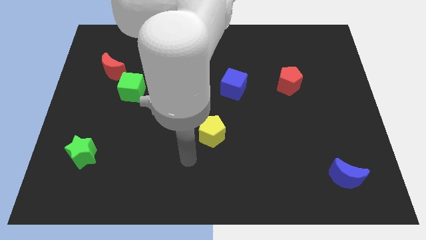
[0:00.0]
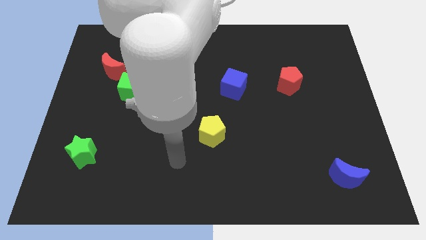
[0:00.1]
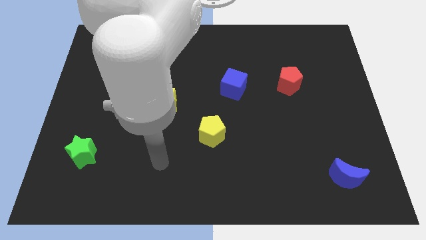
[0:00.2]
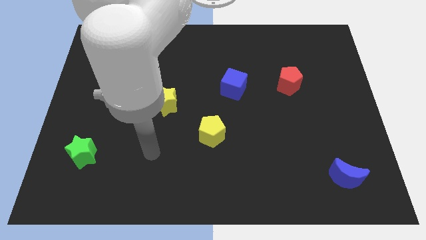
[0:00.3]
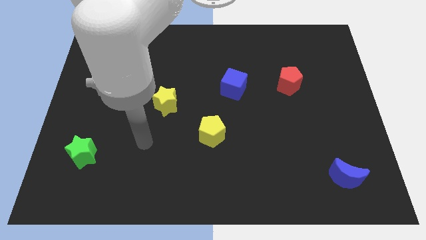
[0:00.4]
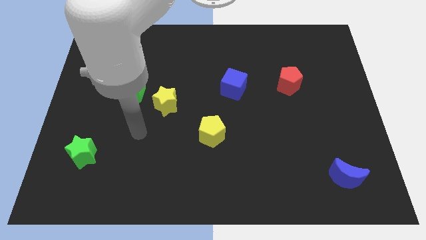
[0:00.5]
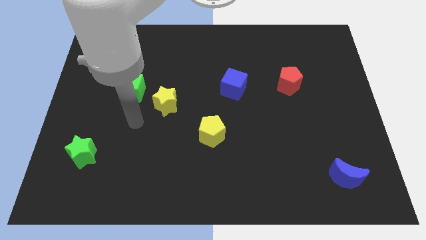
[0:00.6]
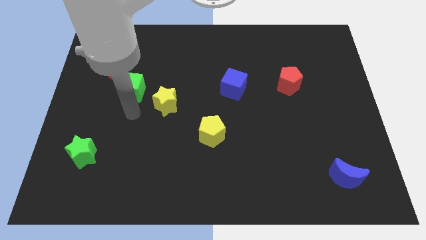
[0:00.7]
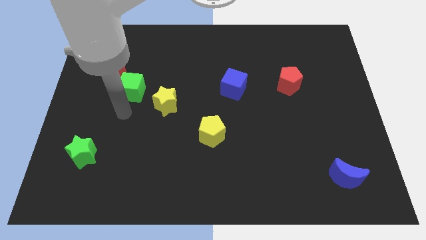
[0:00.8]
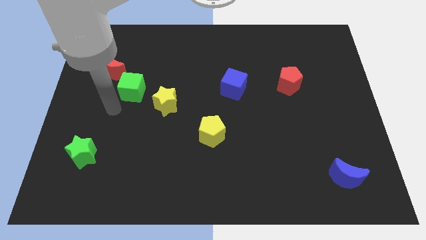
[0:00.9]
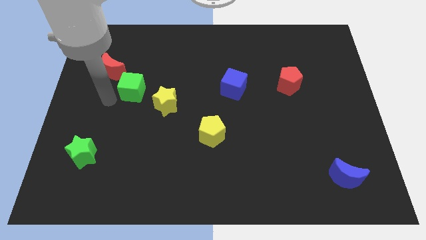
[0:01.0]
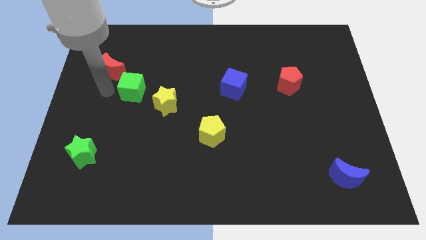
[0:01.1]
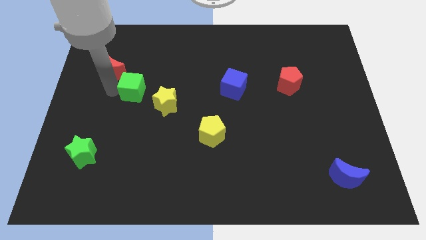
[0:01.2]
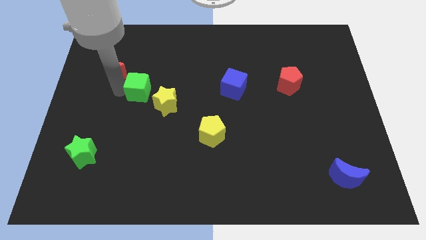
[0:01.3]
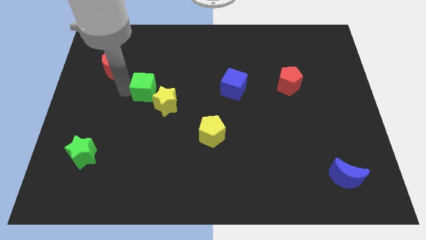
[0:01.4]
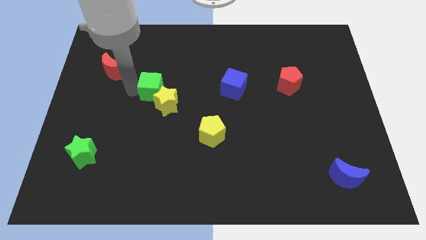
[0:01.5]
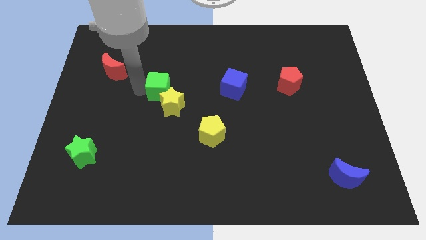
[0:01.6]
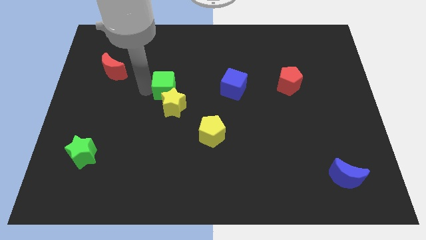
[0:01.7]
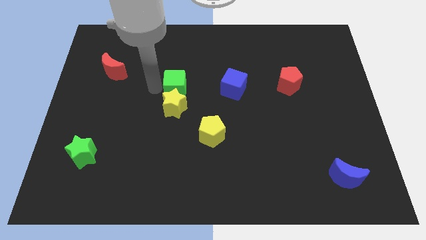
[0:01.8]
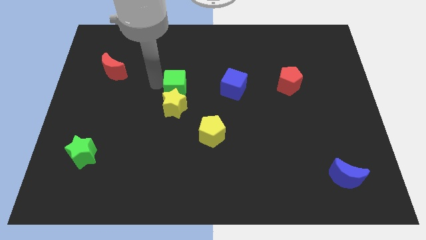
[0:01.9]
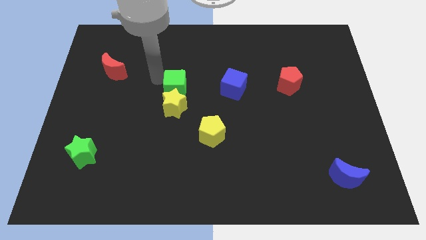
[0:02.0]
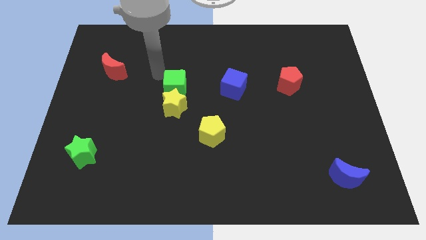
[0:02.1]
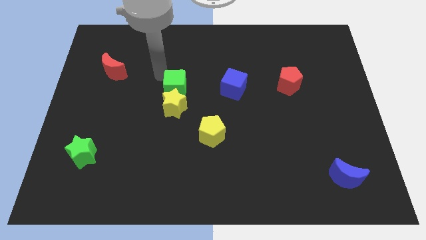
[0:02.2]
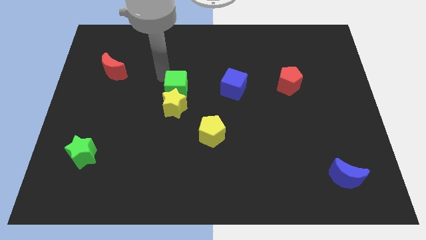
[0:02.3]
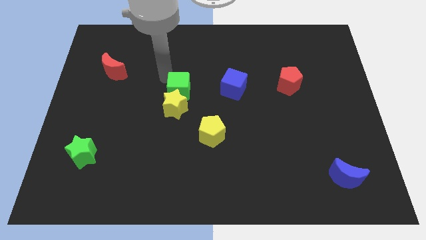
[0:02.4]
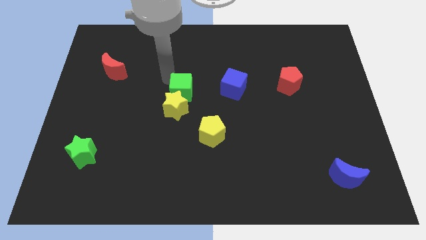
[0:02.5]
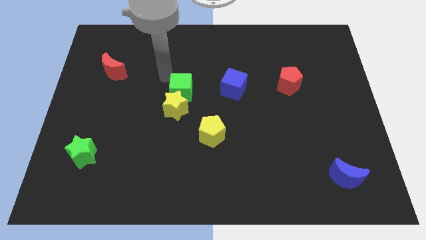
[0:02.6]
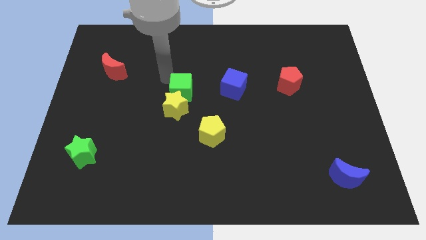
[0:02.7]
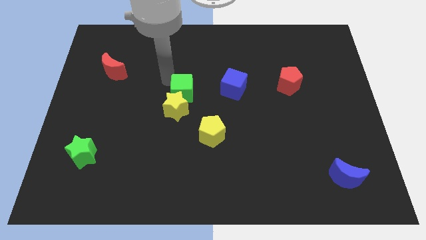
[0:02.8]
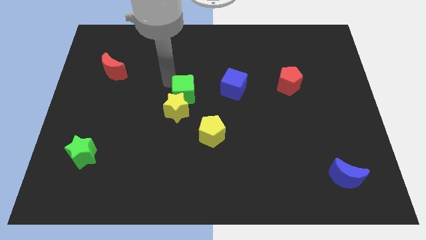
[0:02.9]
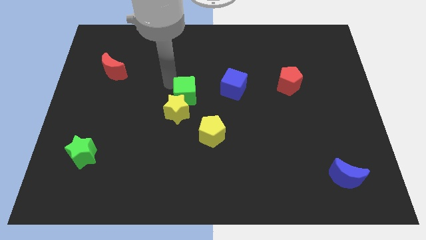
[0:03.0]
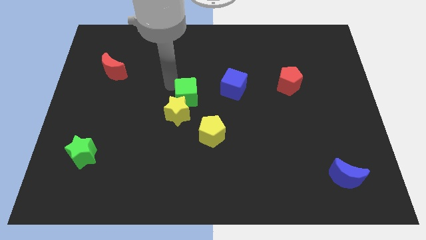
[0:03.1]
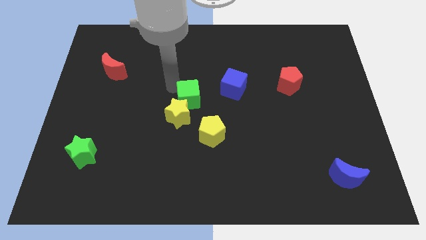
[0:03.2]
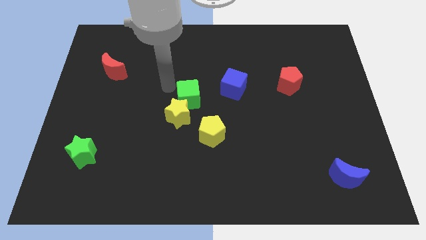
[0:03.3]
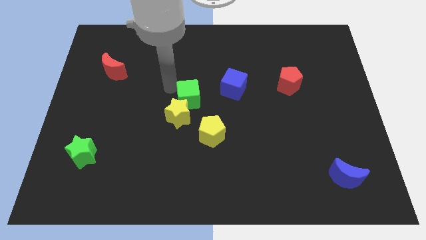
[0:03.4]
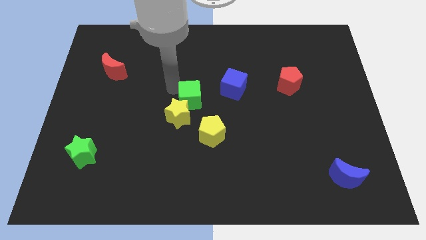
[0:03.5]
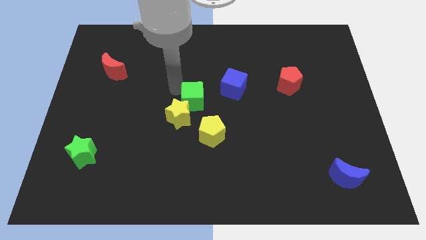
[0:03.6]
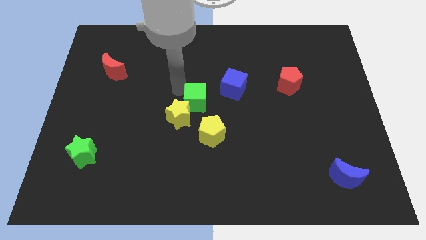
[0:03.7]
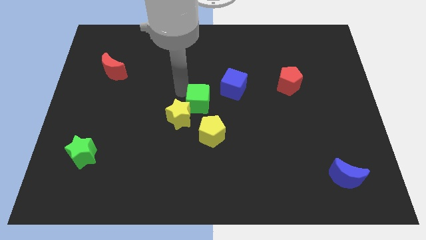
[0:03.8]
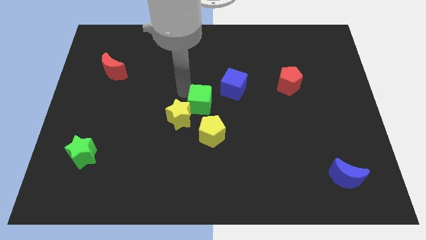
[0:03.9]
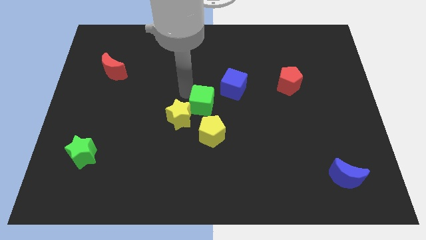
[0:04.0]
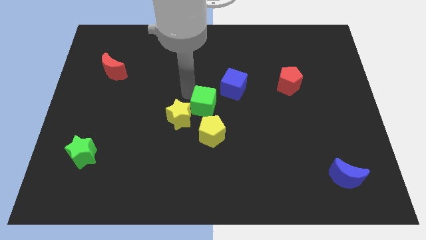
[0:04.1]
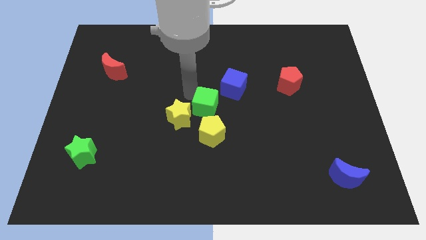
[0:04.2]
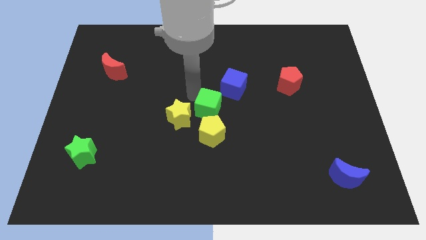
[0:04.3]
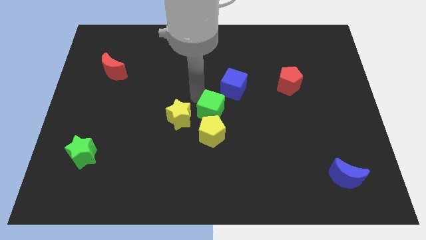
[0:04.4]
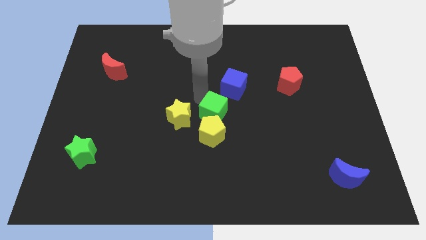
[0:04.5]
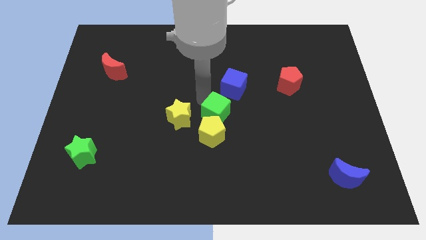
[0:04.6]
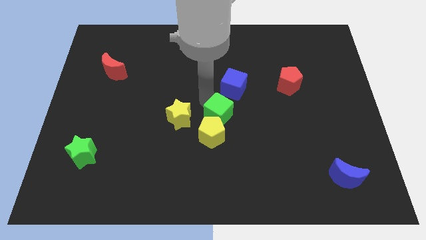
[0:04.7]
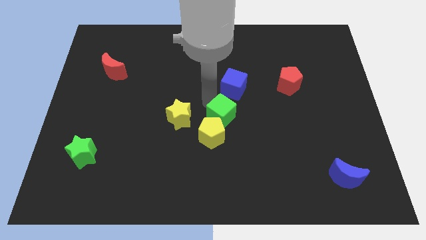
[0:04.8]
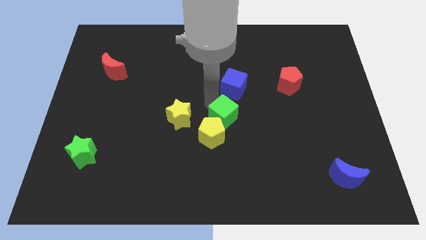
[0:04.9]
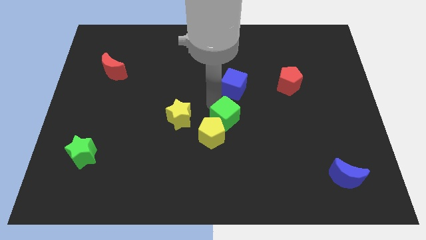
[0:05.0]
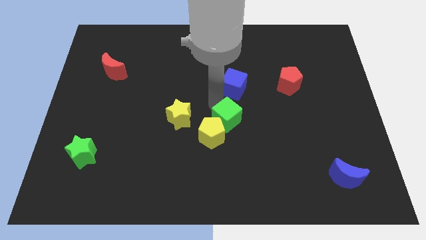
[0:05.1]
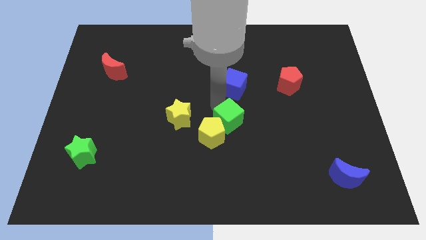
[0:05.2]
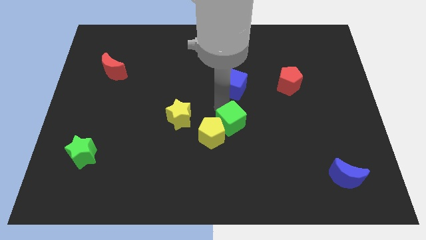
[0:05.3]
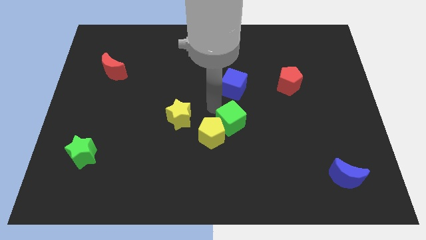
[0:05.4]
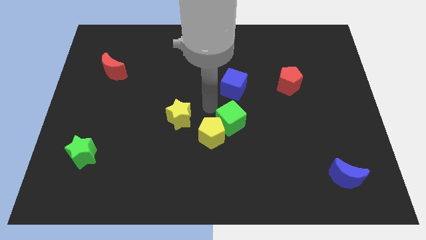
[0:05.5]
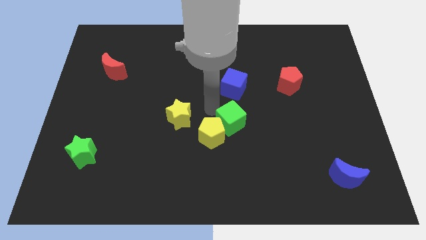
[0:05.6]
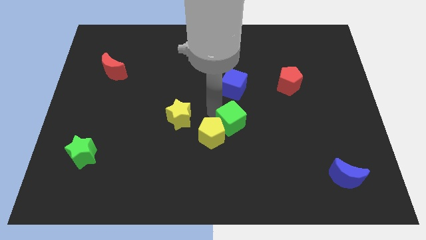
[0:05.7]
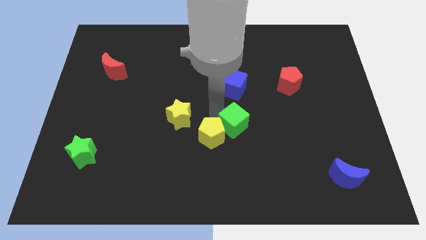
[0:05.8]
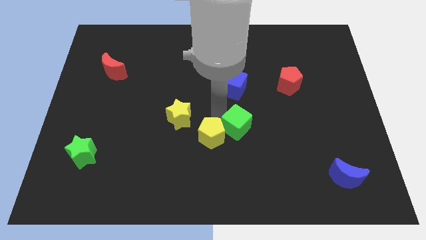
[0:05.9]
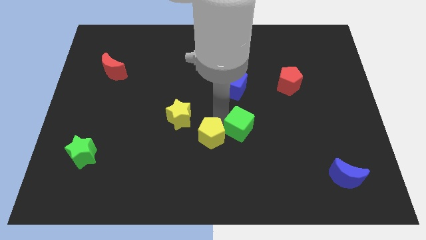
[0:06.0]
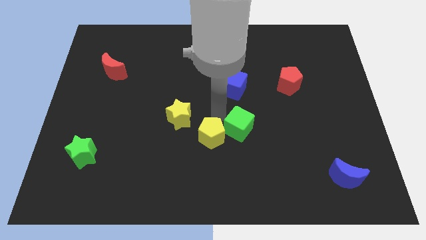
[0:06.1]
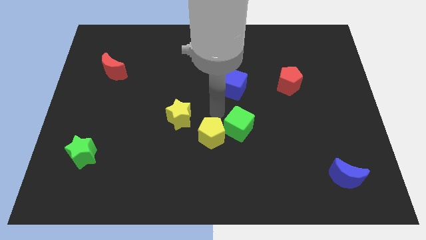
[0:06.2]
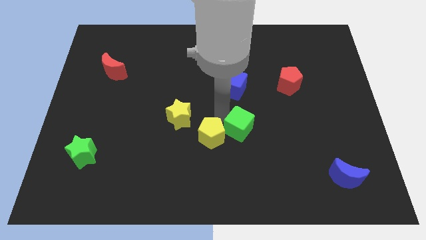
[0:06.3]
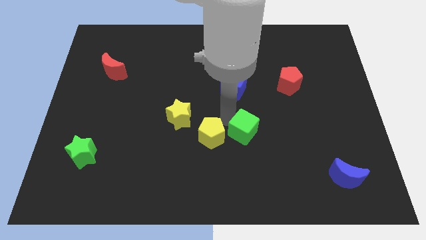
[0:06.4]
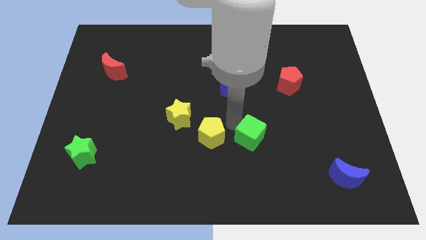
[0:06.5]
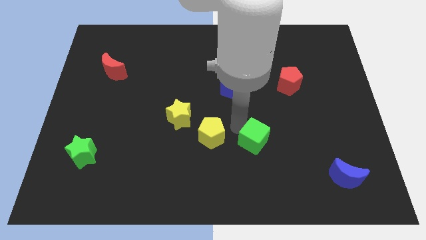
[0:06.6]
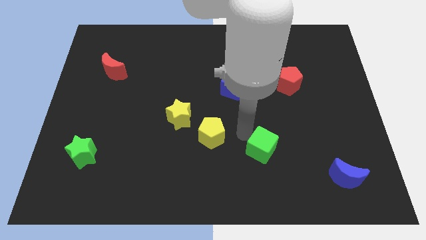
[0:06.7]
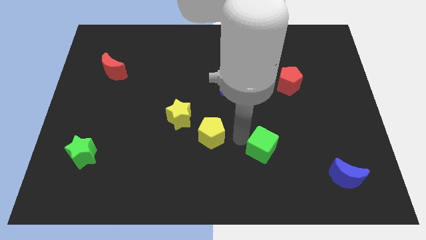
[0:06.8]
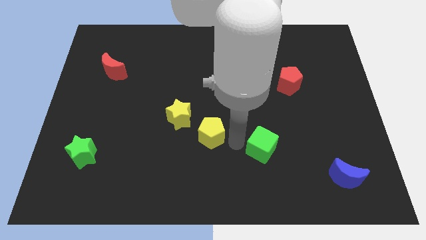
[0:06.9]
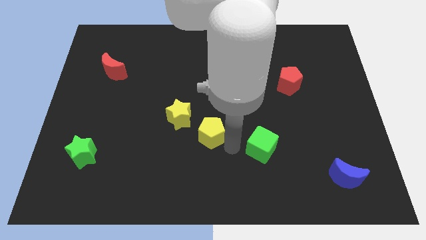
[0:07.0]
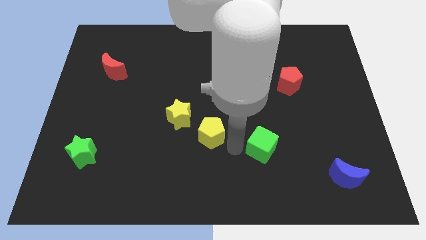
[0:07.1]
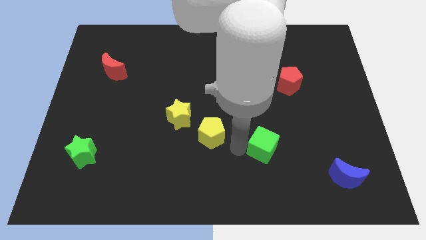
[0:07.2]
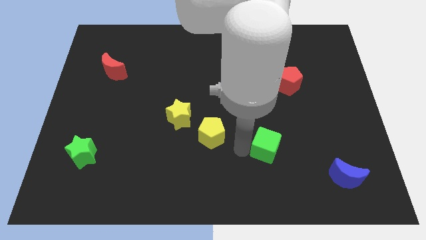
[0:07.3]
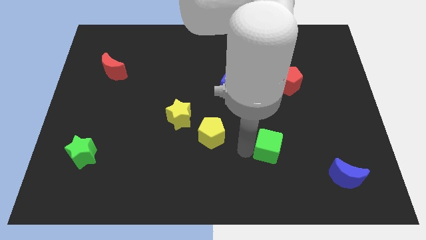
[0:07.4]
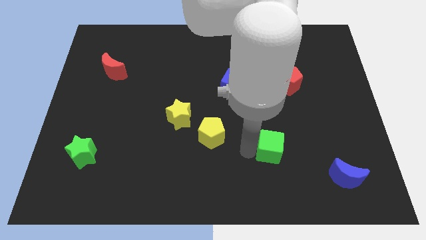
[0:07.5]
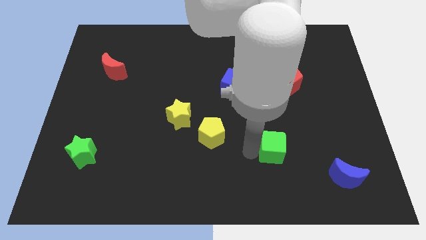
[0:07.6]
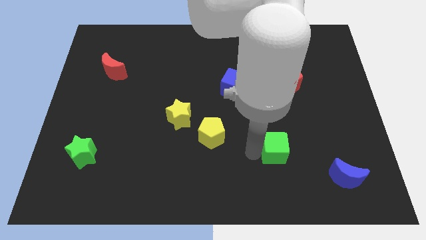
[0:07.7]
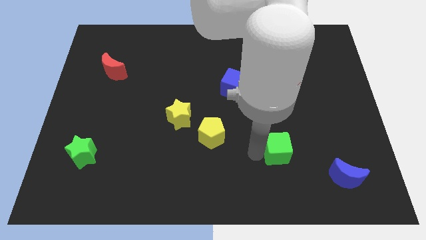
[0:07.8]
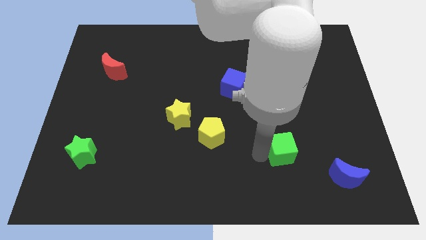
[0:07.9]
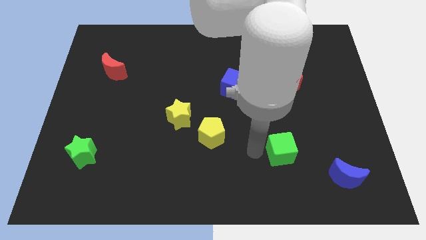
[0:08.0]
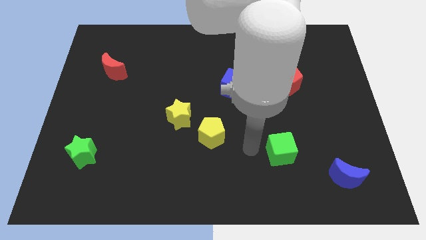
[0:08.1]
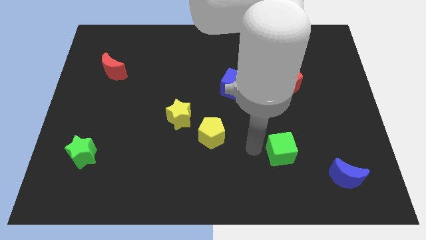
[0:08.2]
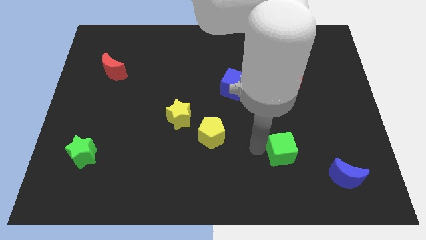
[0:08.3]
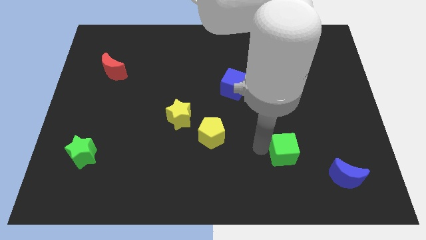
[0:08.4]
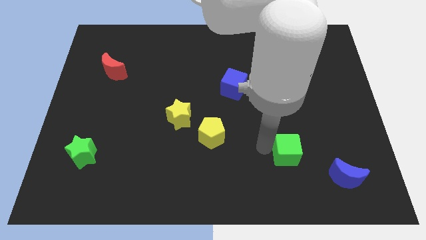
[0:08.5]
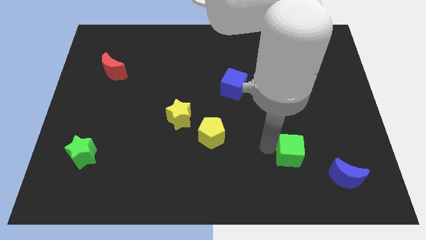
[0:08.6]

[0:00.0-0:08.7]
push the green cube to the top left of the blue moon
